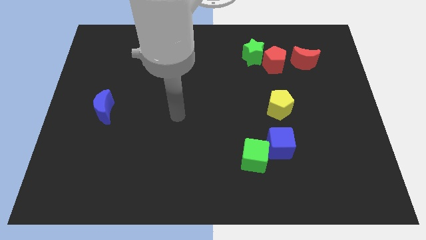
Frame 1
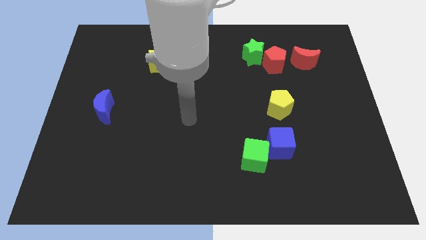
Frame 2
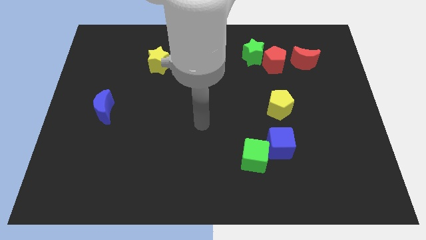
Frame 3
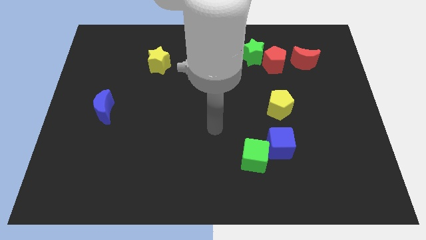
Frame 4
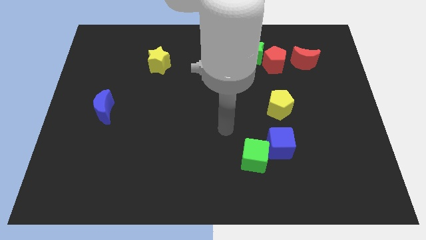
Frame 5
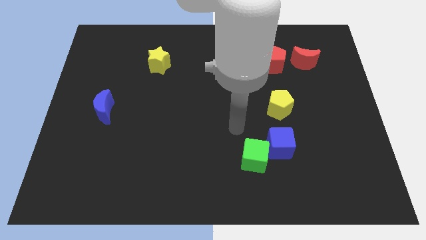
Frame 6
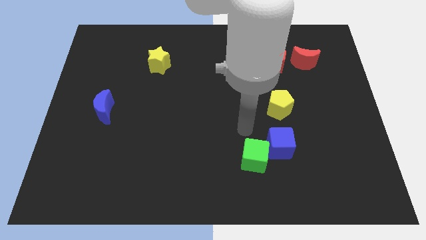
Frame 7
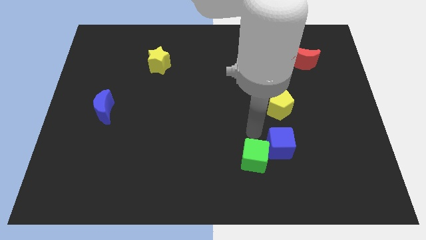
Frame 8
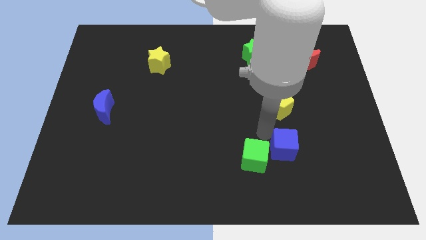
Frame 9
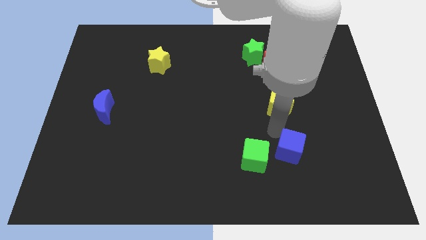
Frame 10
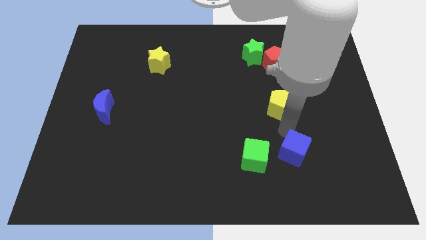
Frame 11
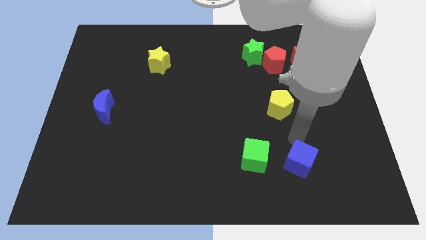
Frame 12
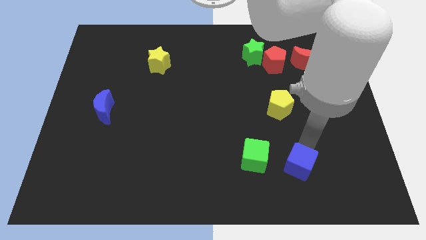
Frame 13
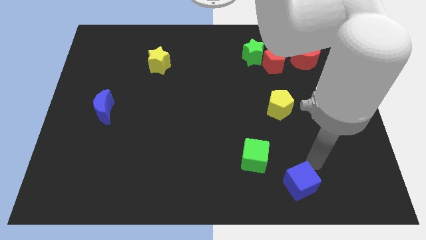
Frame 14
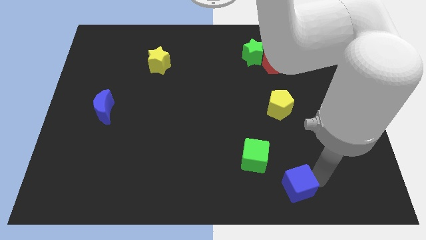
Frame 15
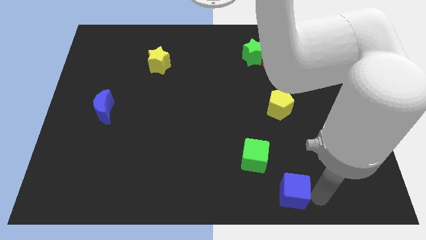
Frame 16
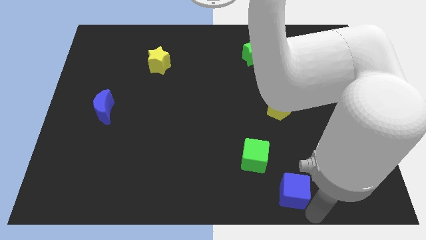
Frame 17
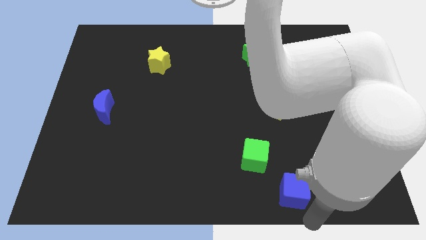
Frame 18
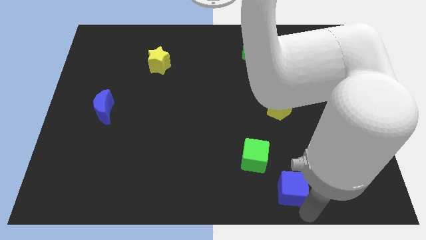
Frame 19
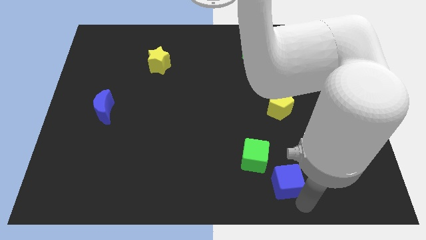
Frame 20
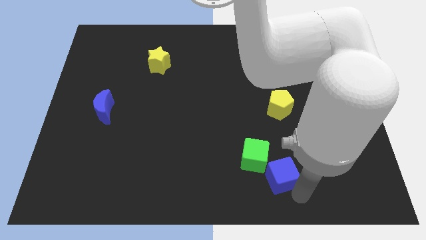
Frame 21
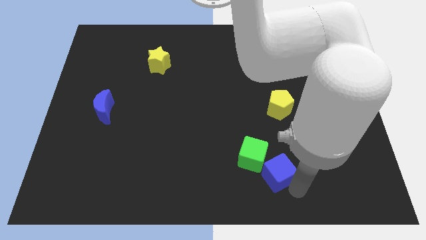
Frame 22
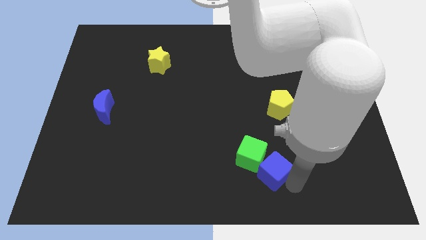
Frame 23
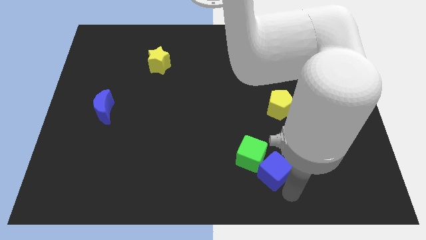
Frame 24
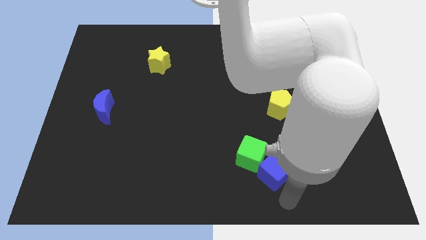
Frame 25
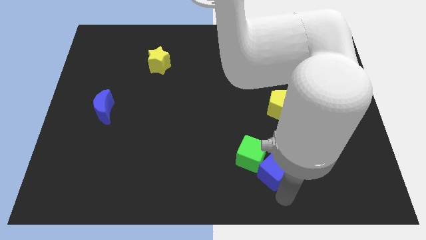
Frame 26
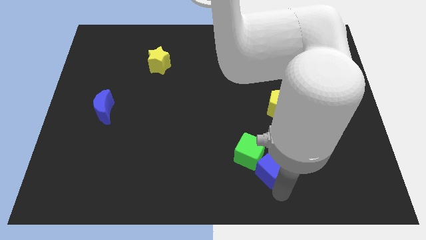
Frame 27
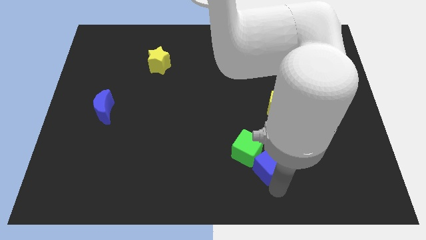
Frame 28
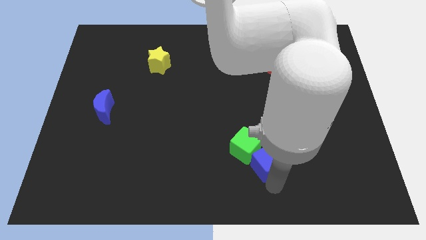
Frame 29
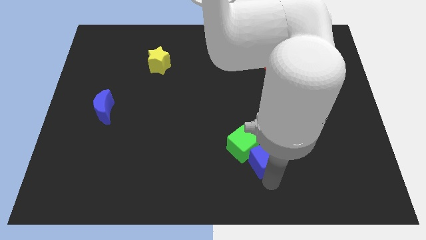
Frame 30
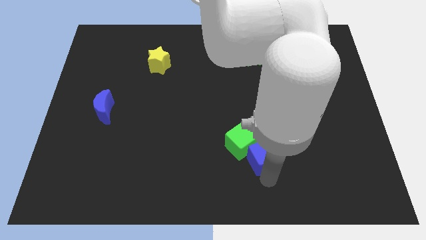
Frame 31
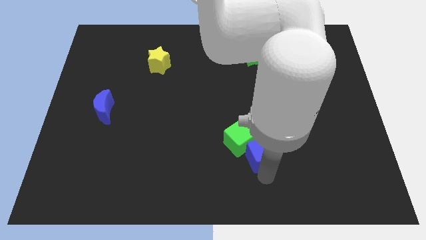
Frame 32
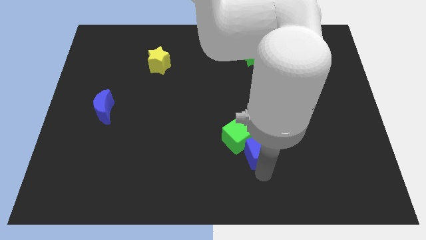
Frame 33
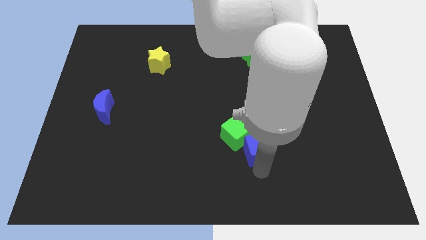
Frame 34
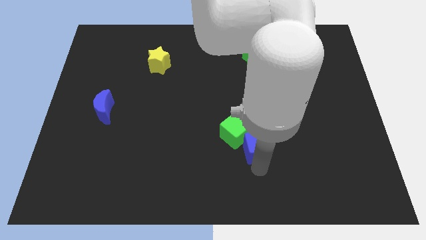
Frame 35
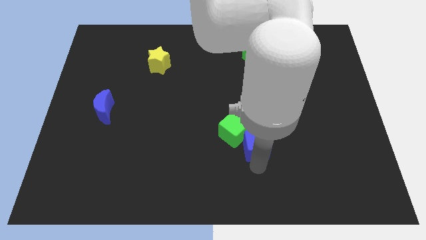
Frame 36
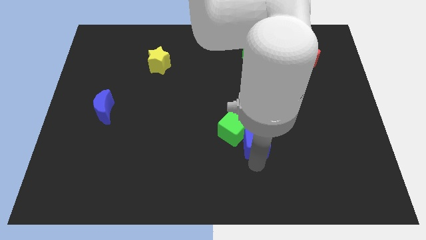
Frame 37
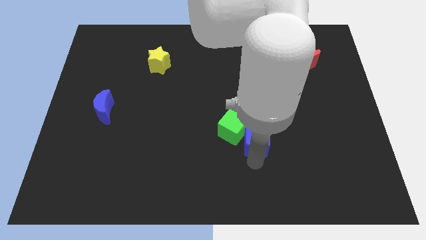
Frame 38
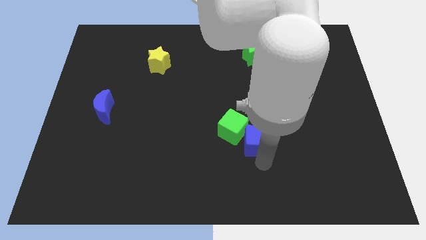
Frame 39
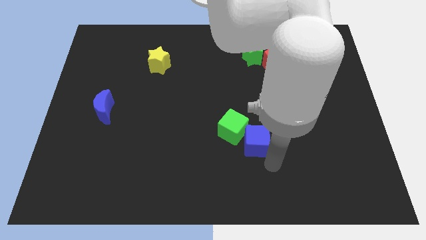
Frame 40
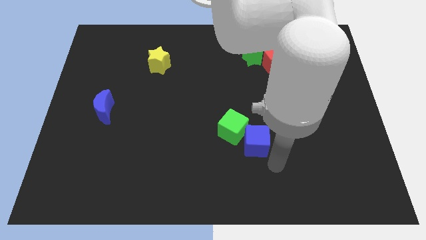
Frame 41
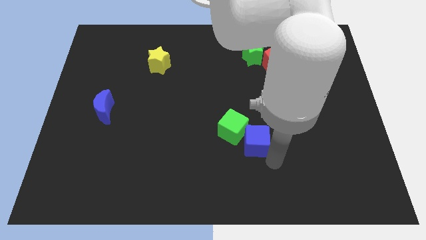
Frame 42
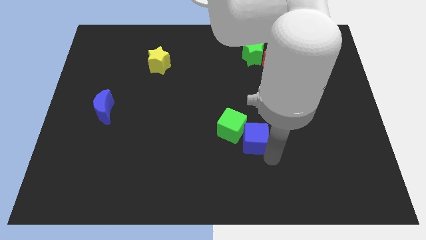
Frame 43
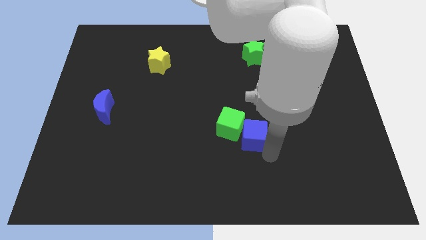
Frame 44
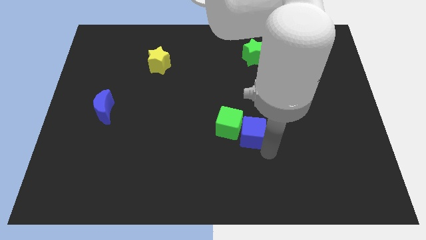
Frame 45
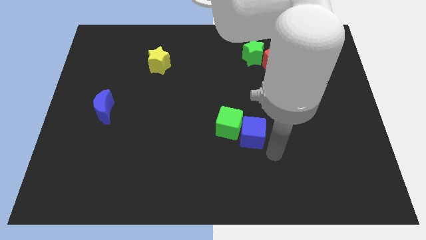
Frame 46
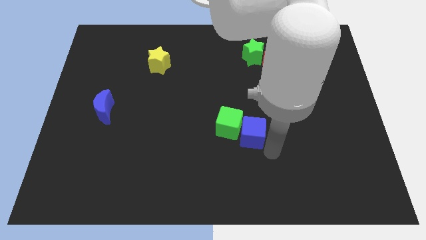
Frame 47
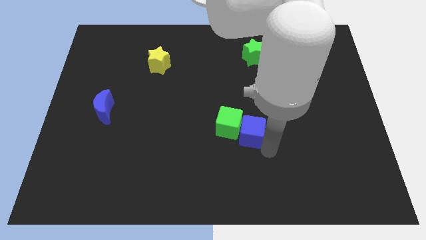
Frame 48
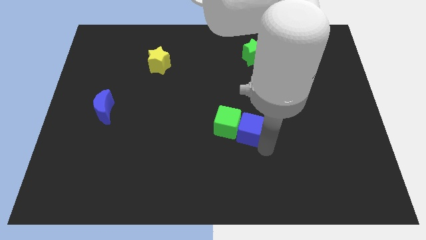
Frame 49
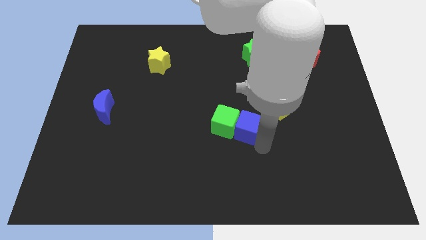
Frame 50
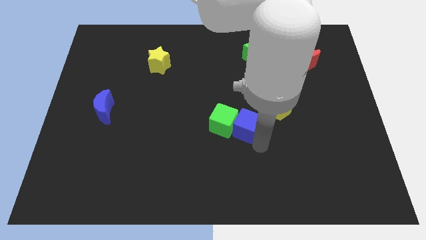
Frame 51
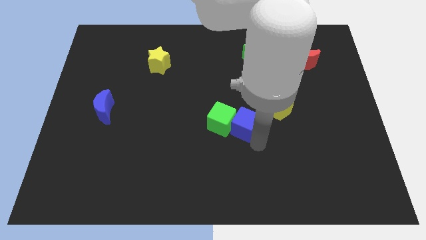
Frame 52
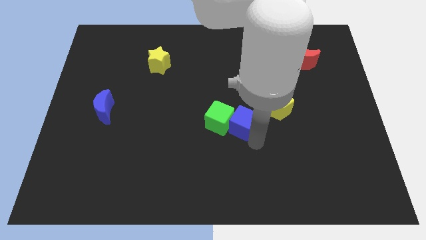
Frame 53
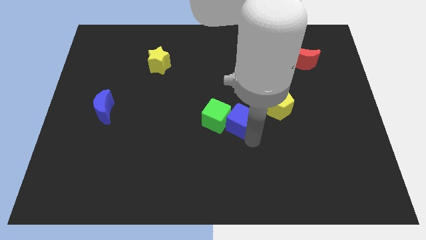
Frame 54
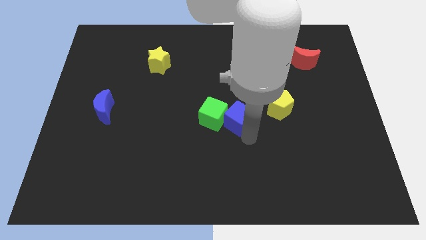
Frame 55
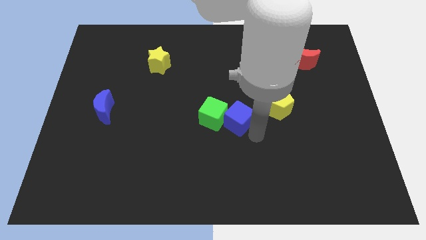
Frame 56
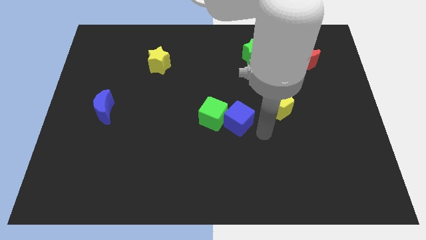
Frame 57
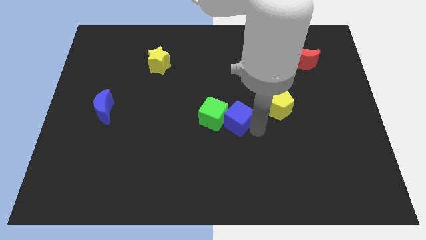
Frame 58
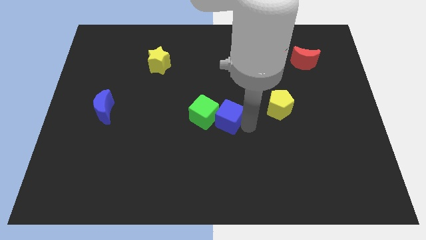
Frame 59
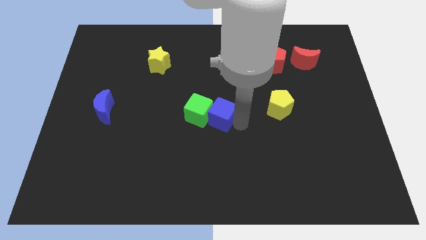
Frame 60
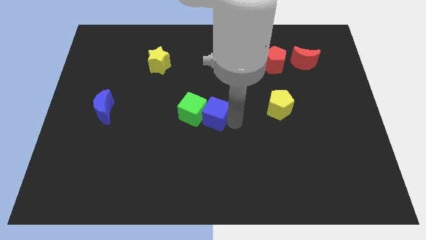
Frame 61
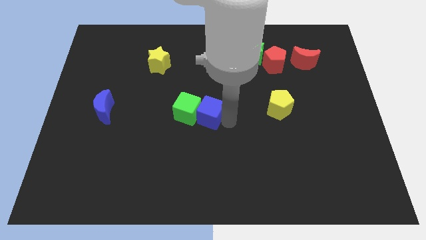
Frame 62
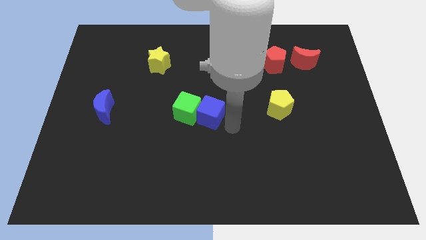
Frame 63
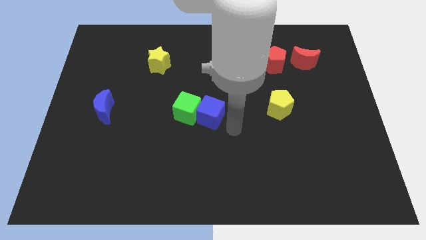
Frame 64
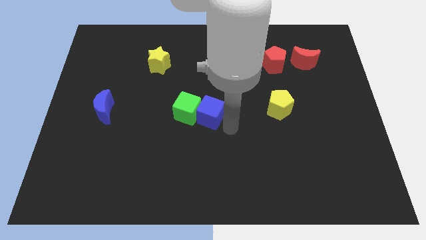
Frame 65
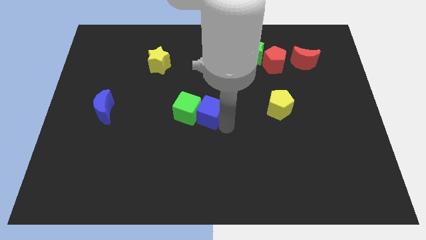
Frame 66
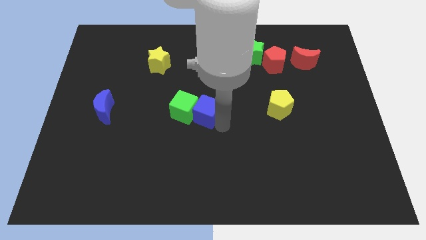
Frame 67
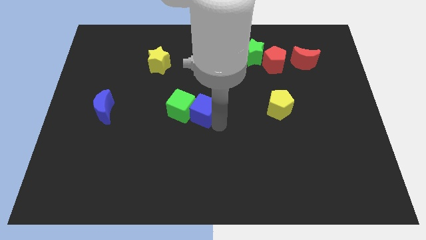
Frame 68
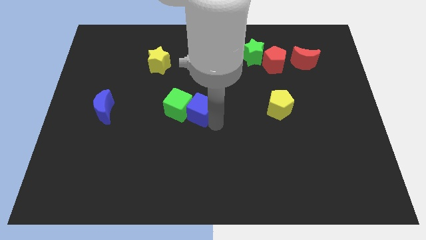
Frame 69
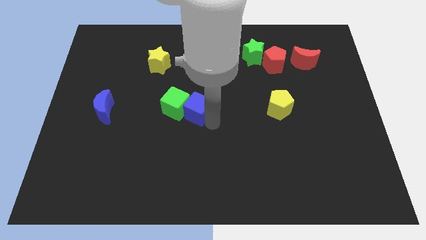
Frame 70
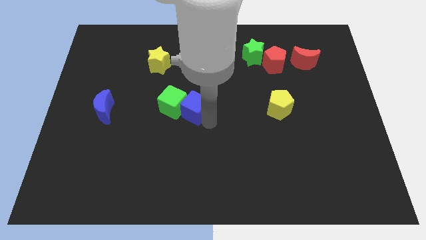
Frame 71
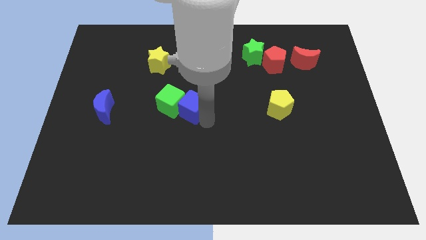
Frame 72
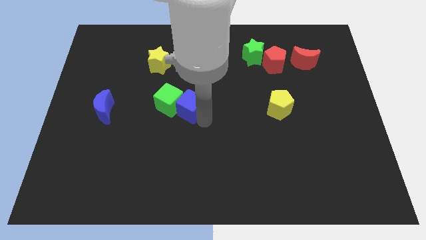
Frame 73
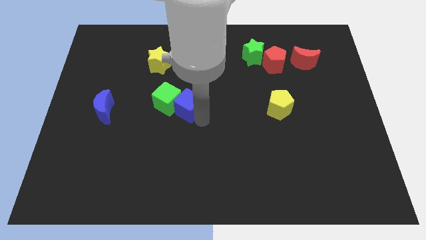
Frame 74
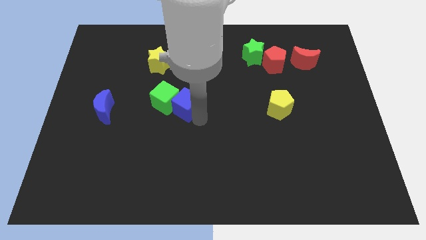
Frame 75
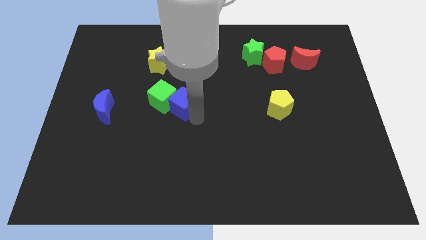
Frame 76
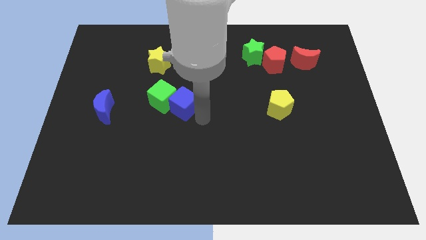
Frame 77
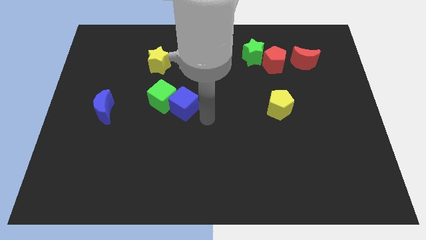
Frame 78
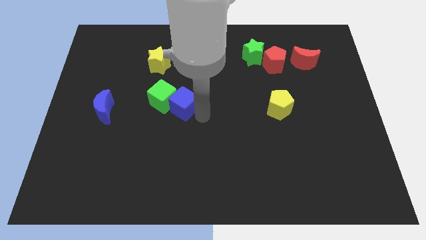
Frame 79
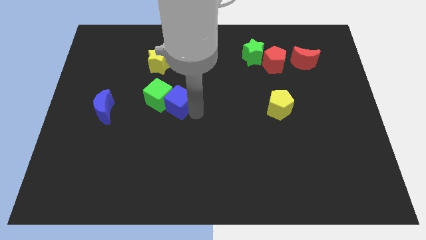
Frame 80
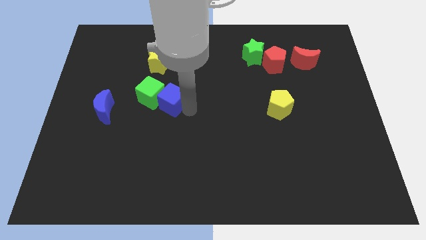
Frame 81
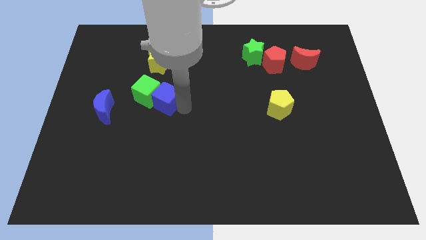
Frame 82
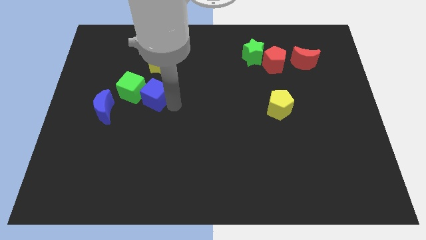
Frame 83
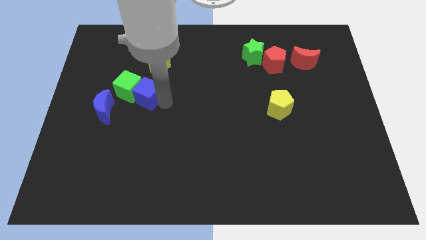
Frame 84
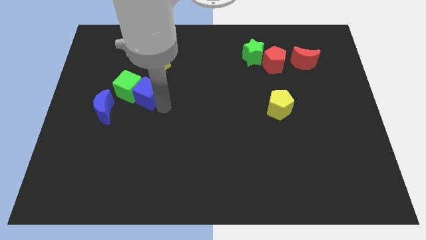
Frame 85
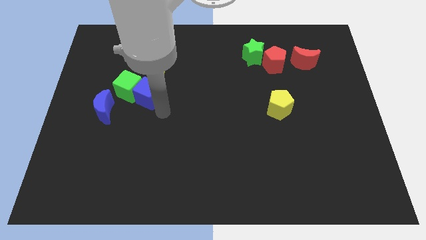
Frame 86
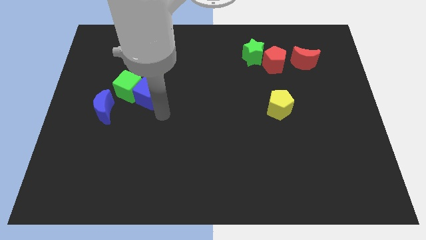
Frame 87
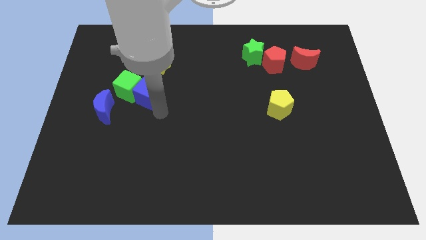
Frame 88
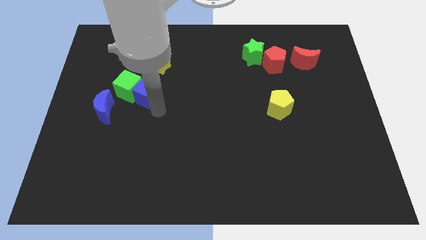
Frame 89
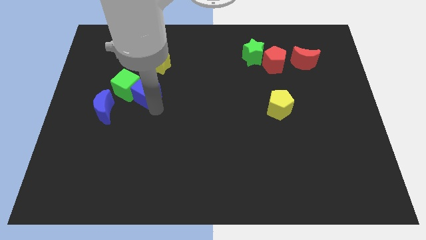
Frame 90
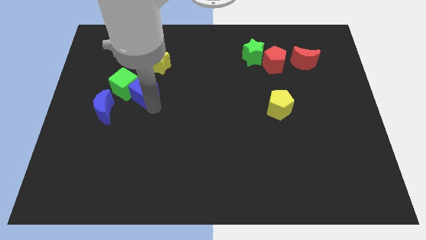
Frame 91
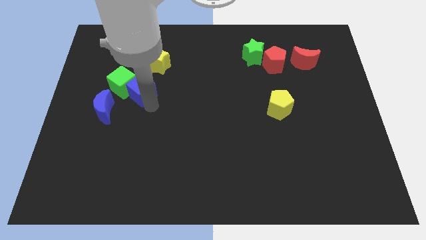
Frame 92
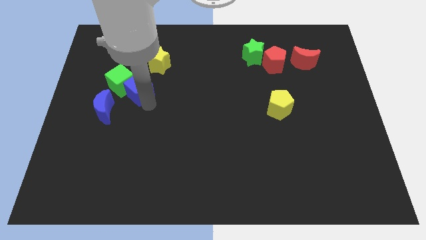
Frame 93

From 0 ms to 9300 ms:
slide the blue cube to the bottom left of the yellow star
